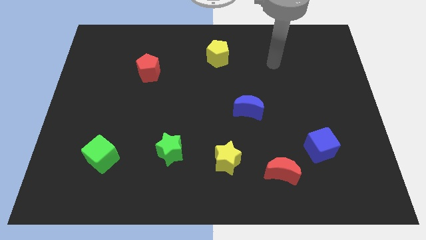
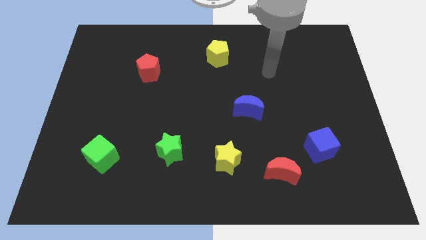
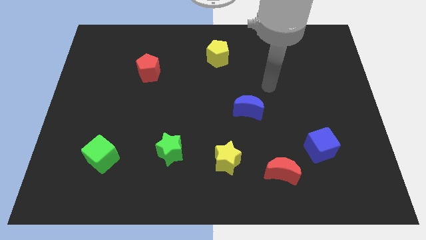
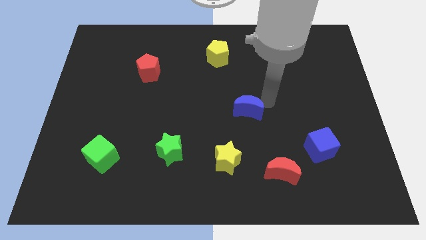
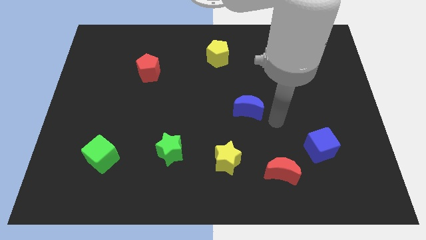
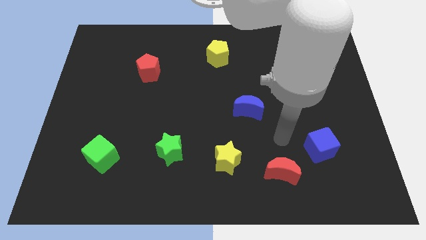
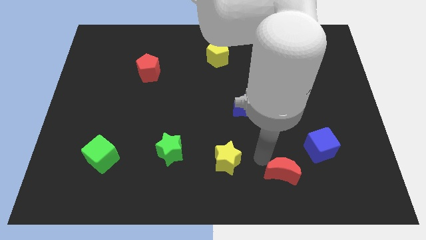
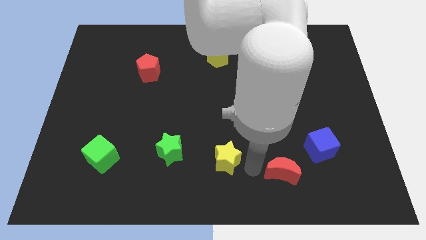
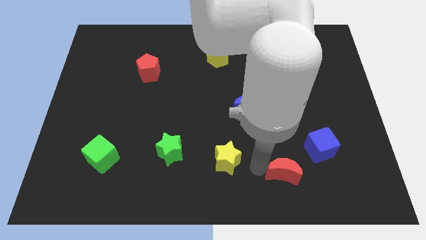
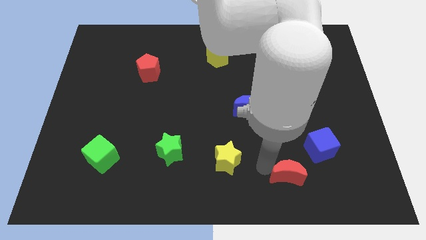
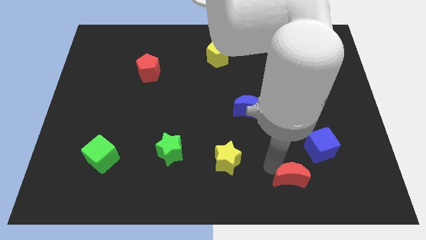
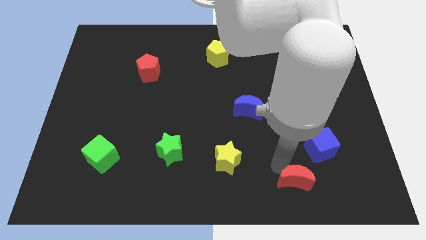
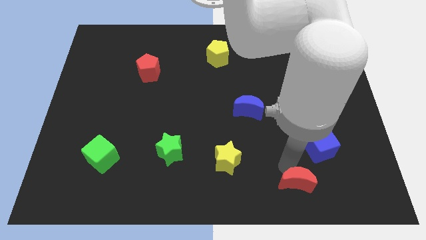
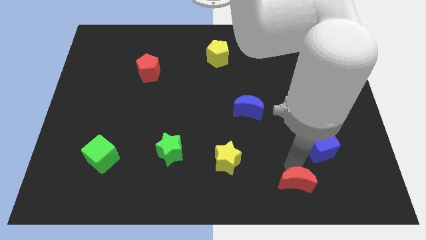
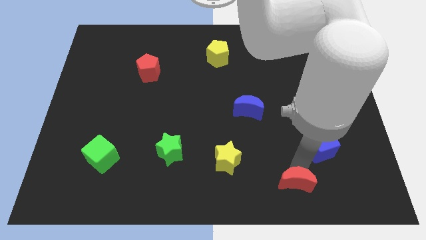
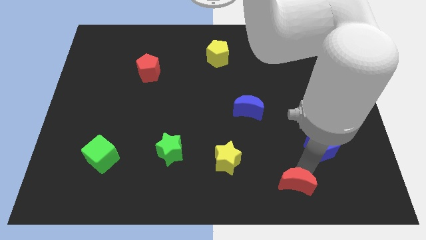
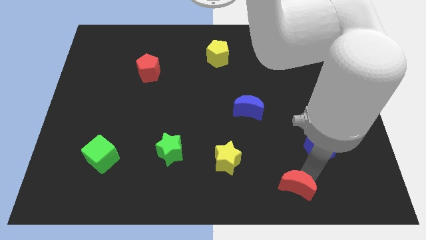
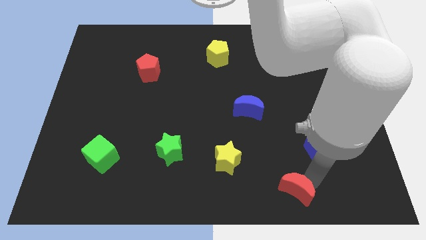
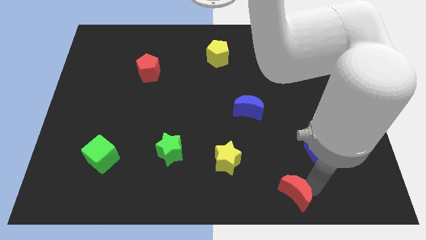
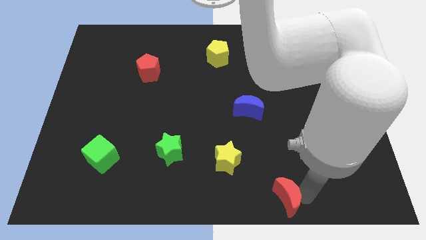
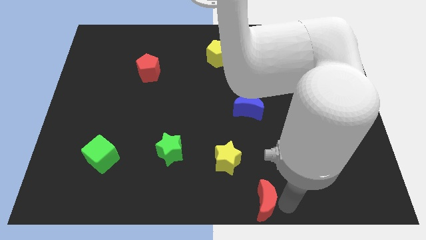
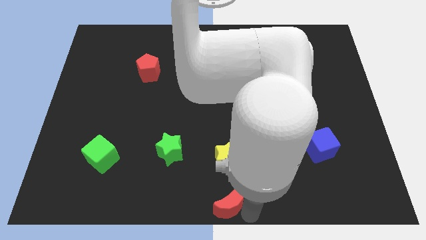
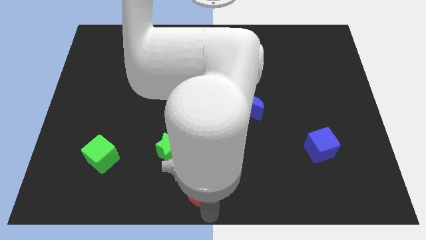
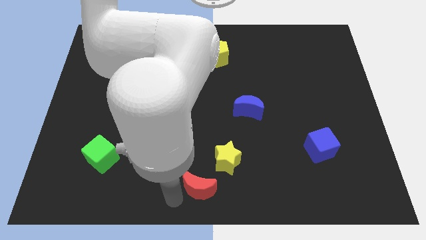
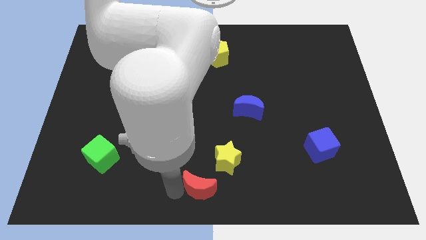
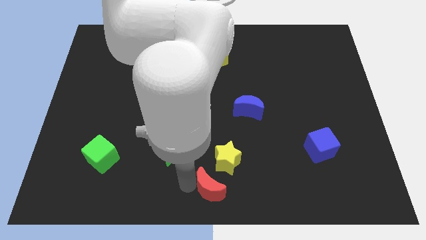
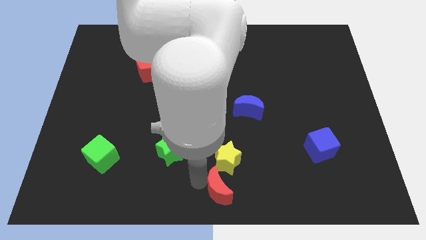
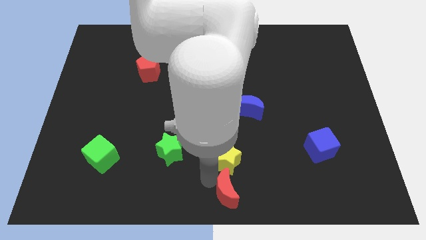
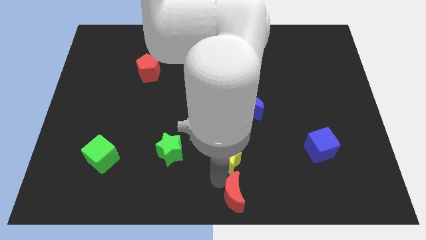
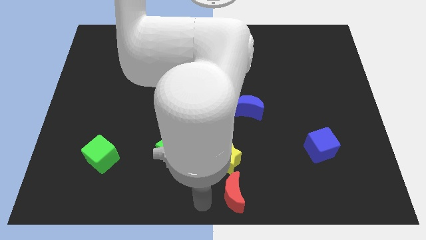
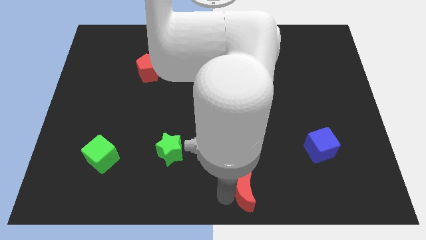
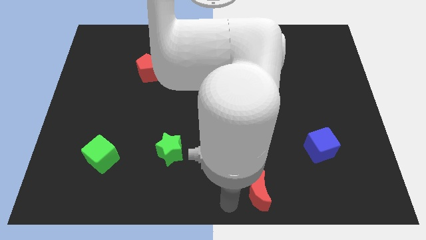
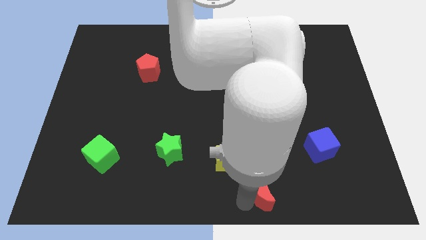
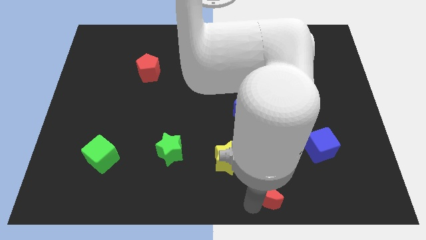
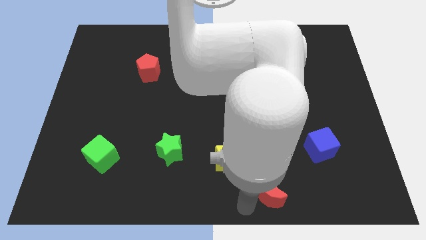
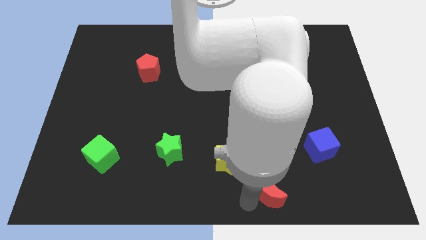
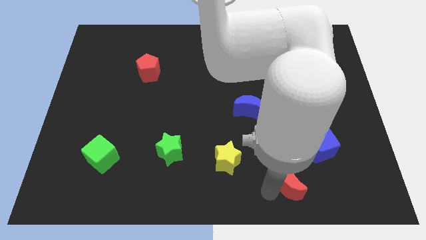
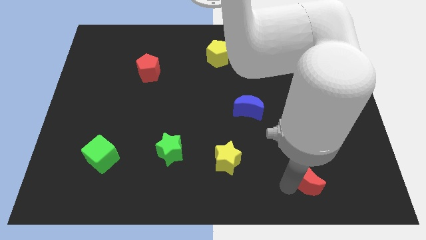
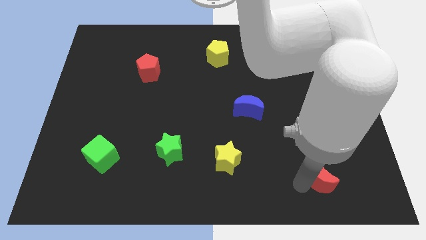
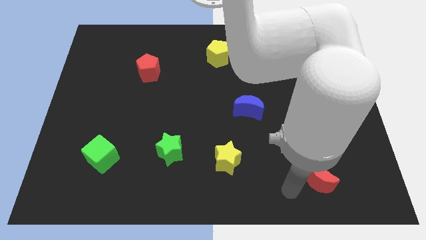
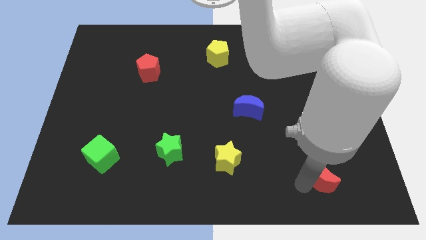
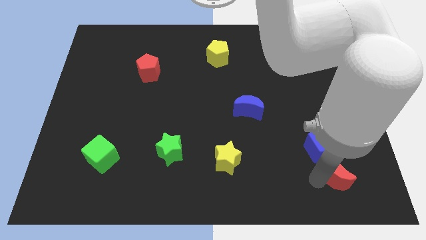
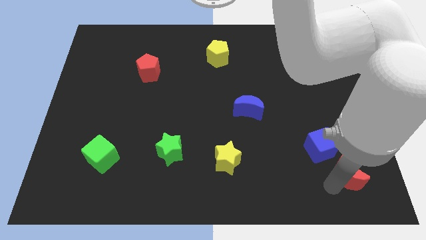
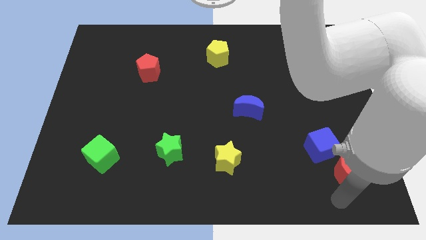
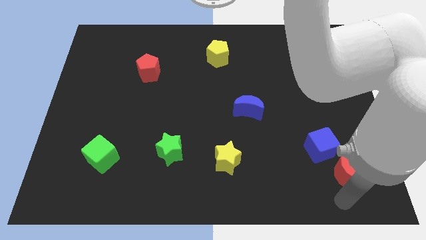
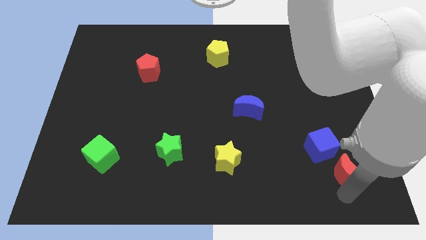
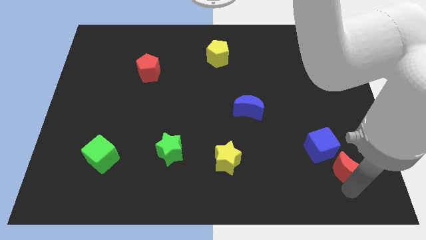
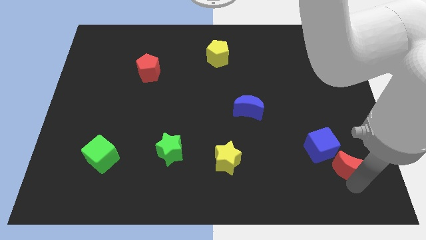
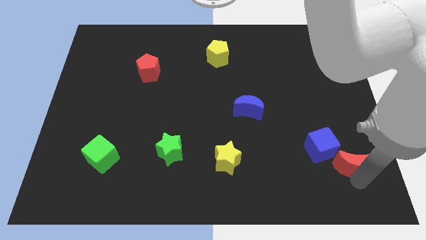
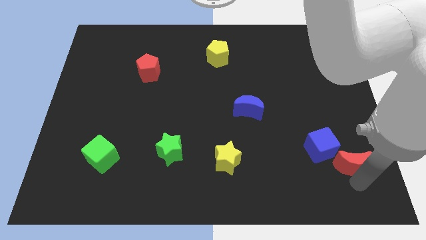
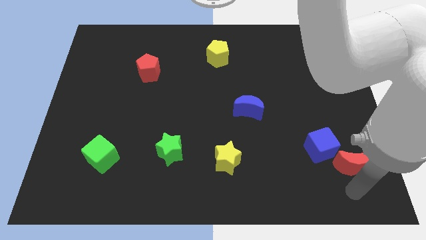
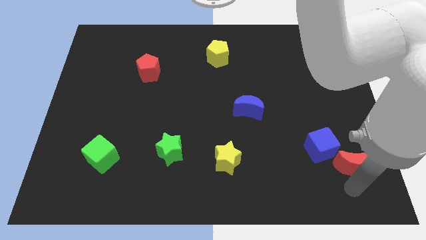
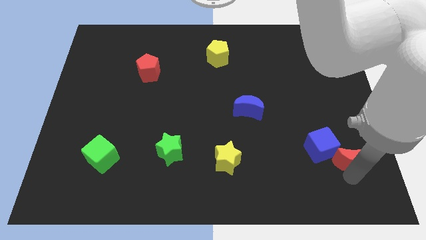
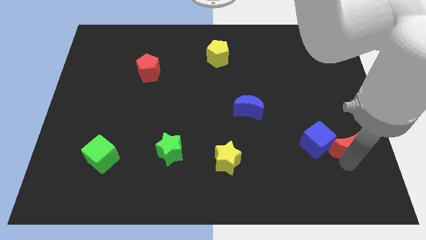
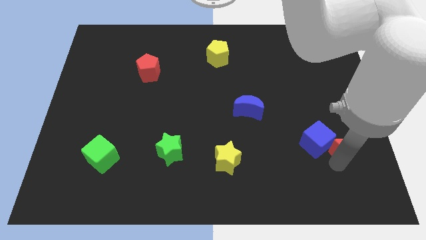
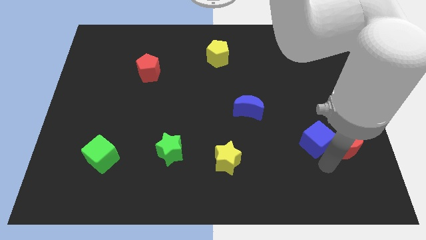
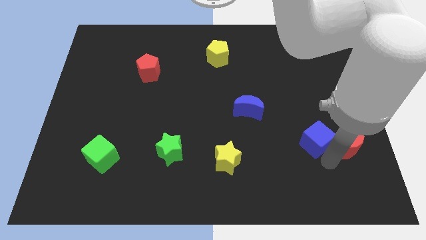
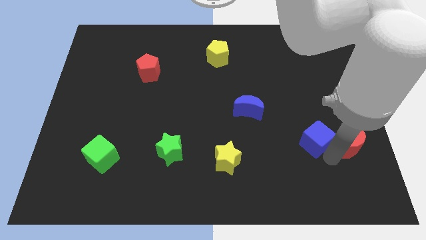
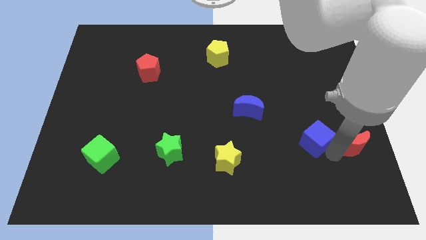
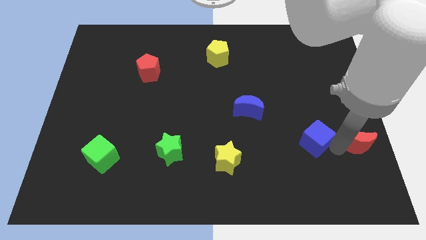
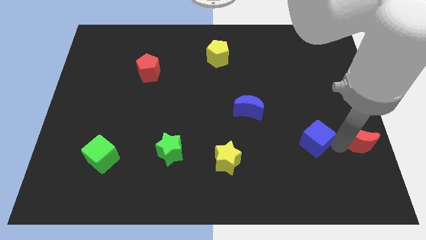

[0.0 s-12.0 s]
move the red moon to the right side

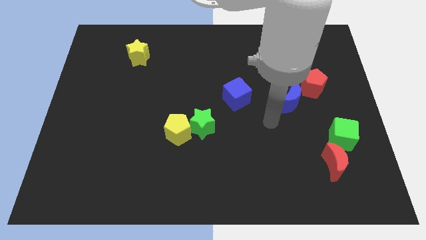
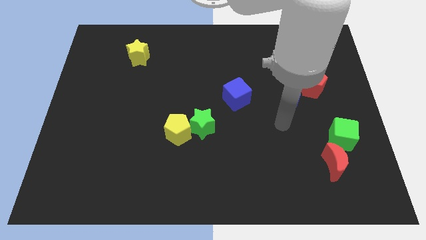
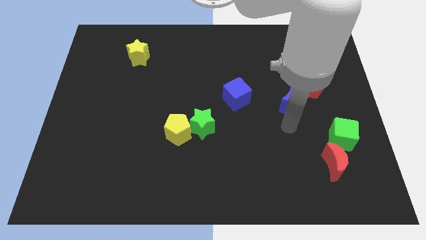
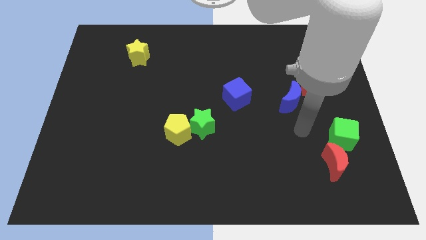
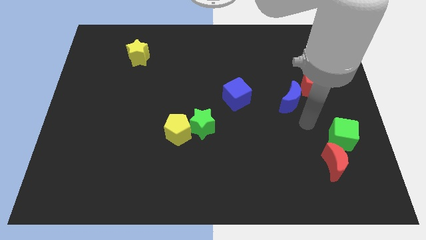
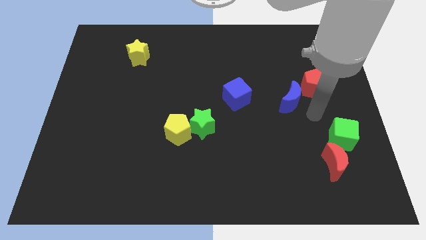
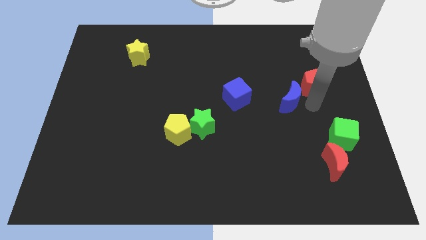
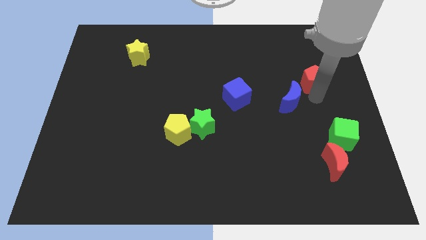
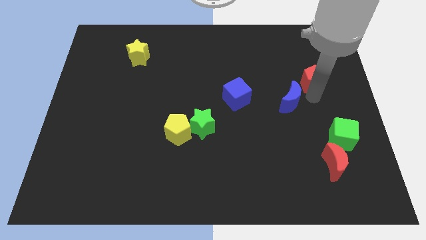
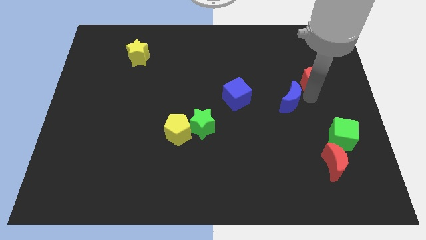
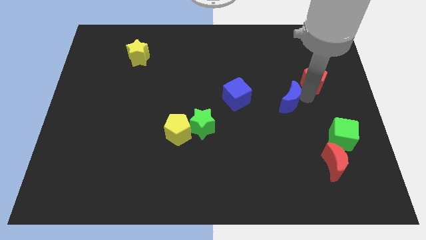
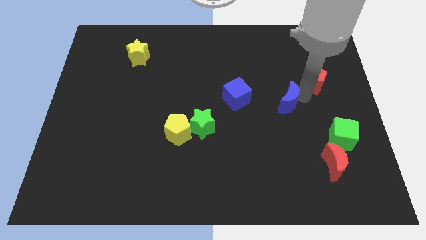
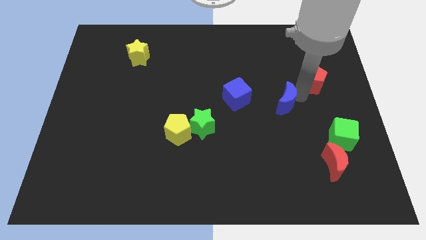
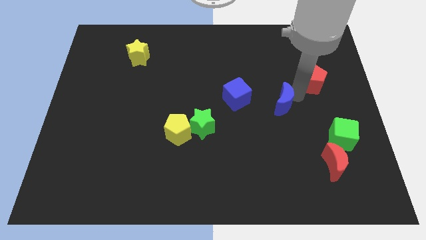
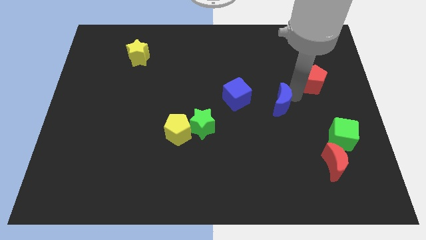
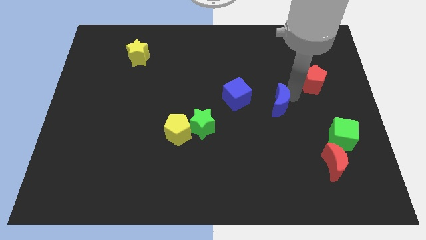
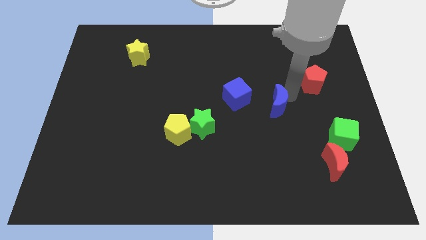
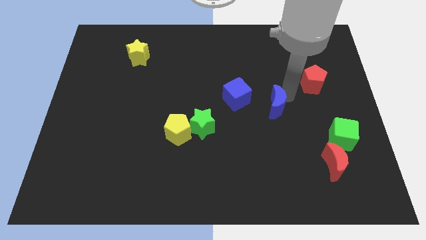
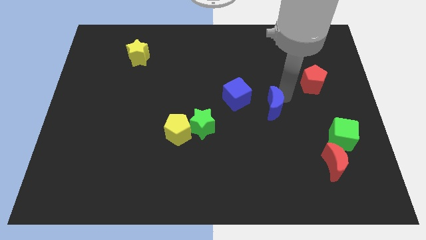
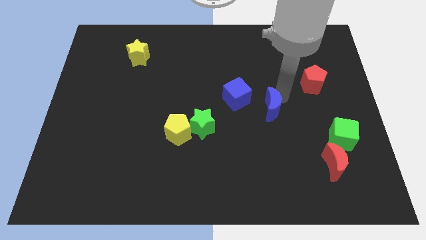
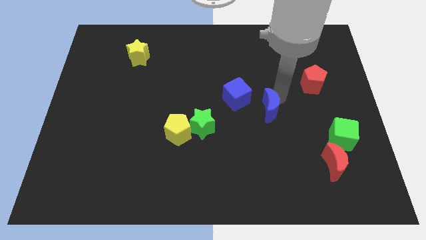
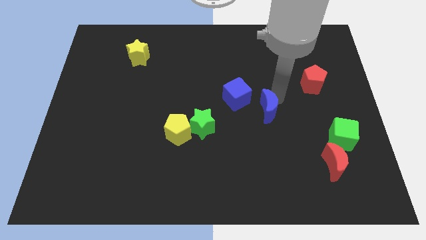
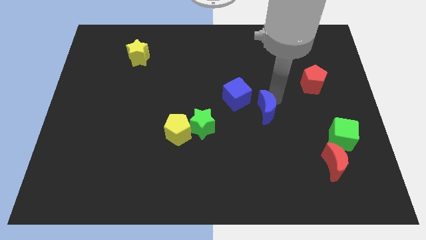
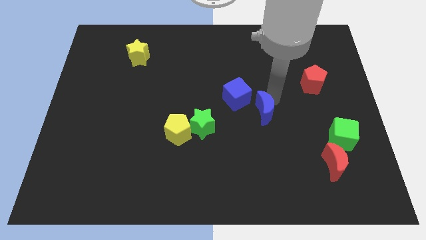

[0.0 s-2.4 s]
put the blue moon to the center
